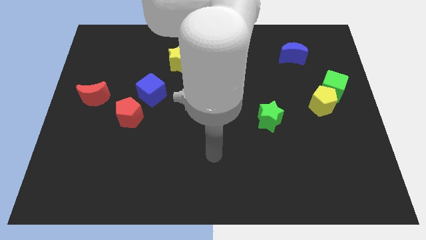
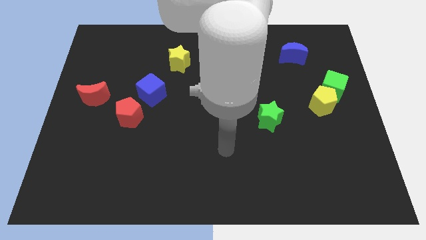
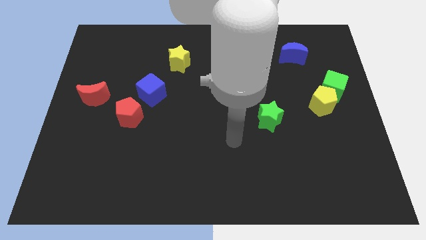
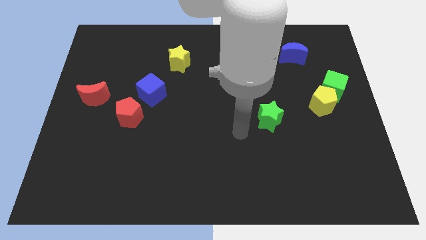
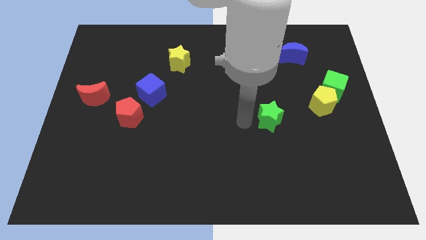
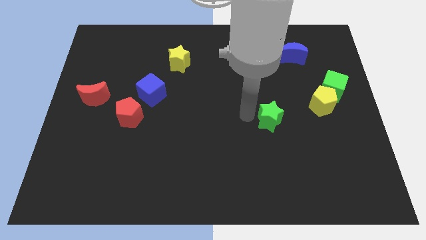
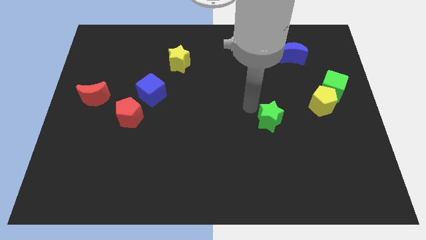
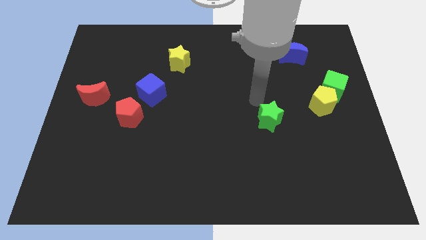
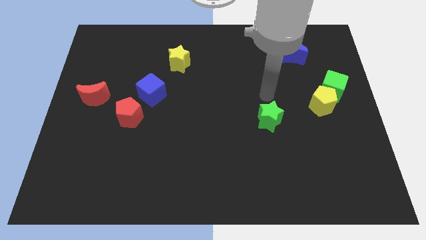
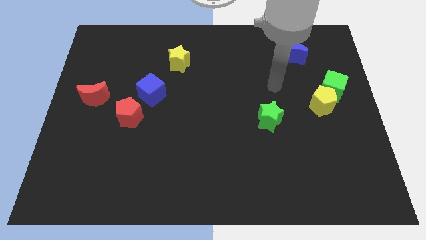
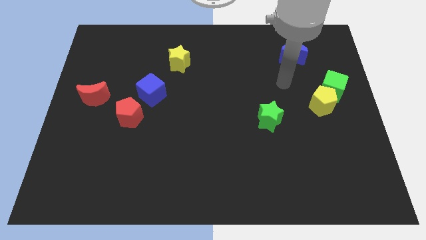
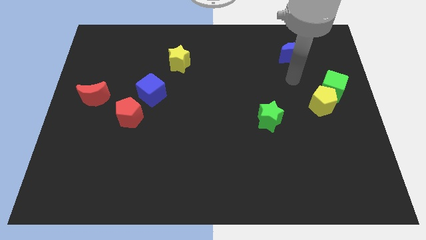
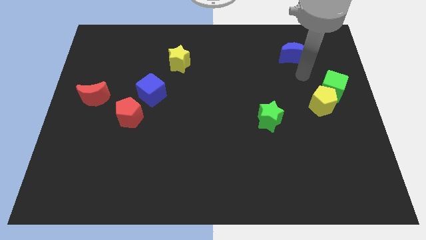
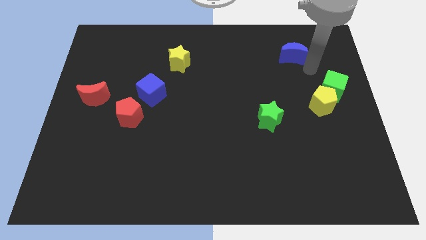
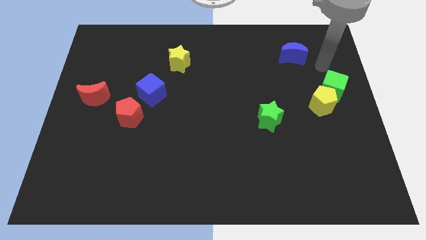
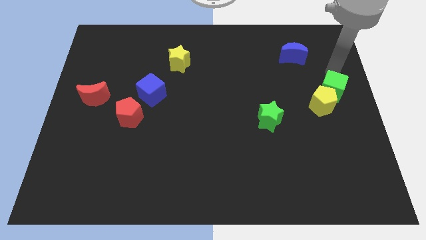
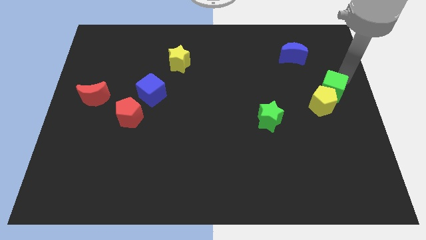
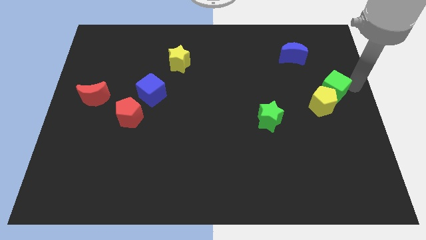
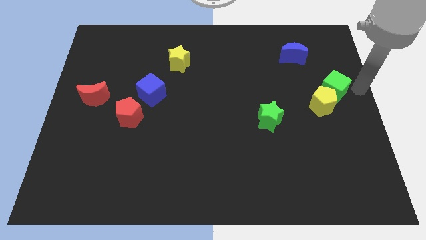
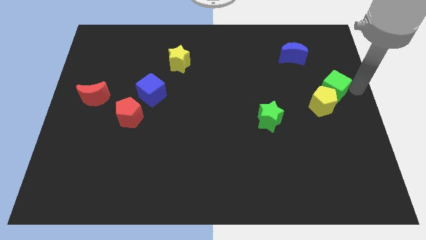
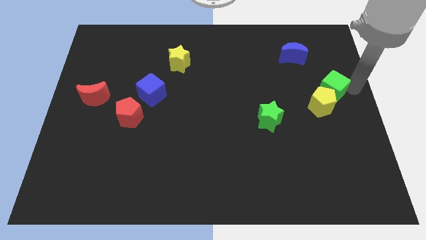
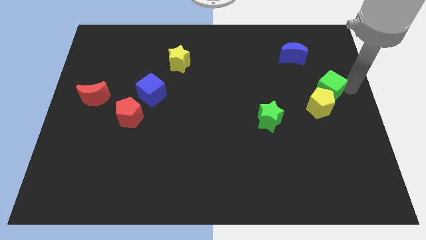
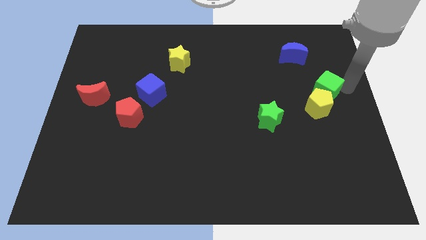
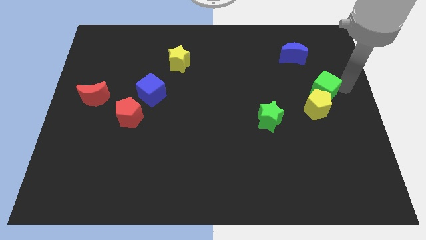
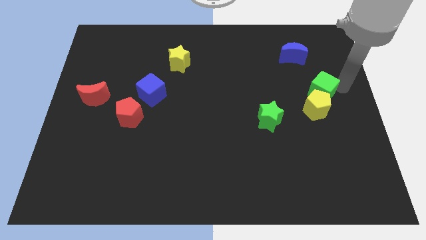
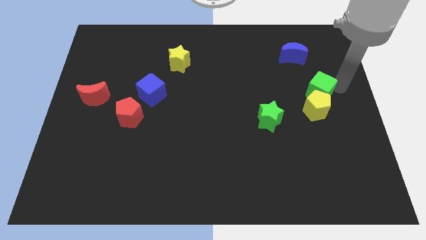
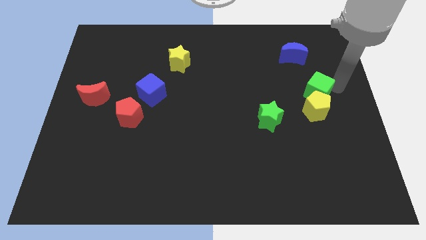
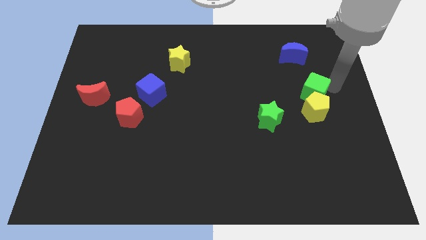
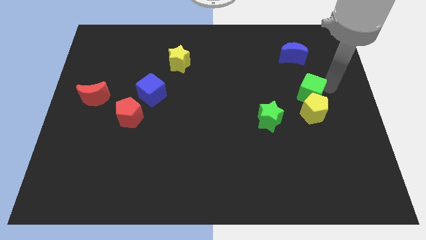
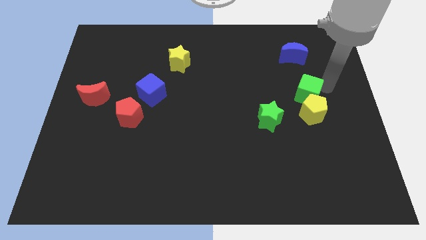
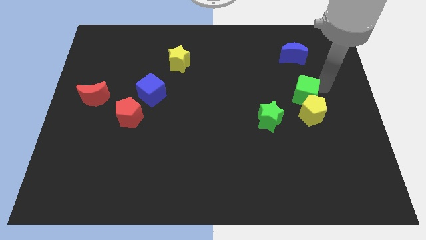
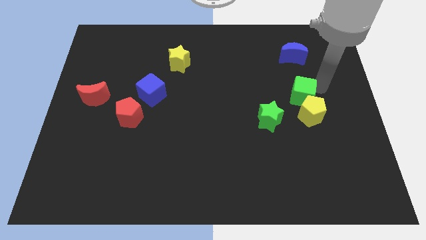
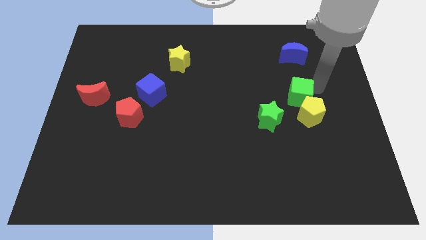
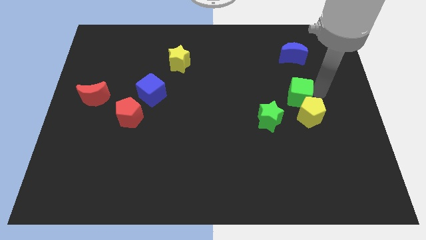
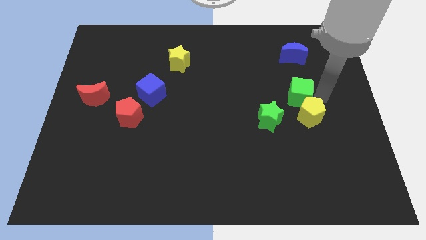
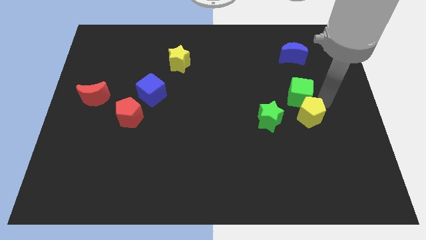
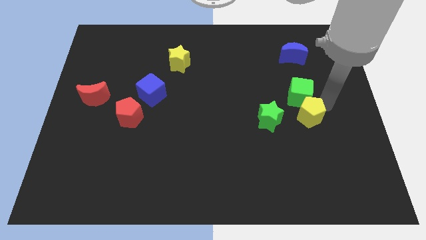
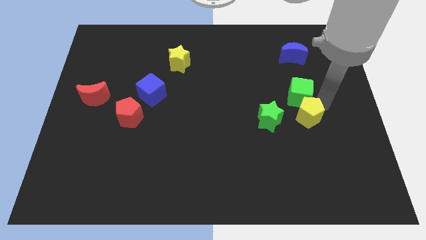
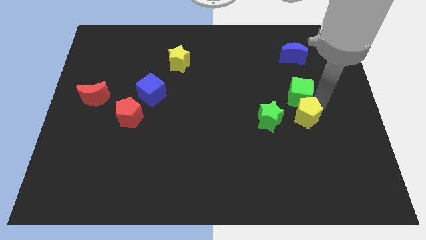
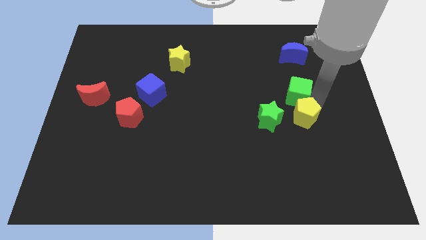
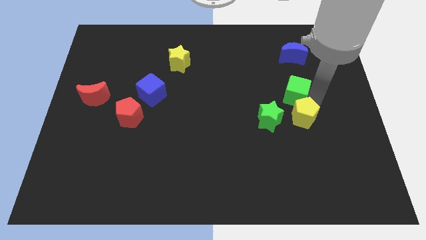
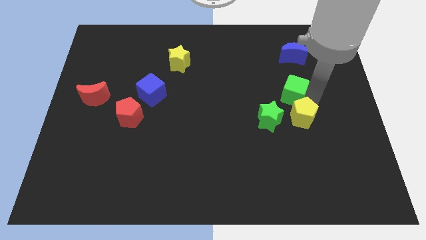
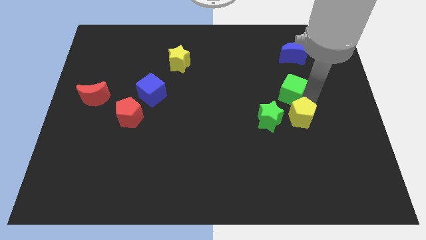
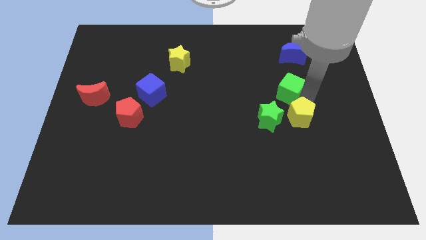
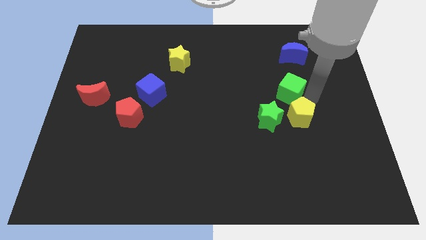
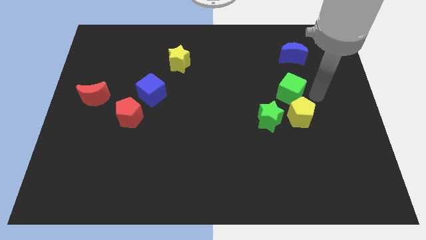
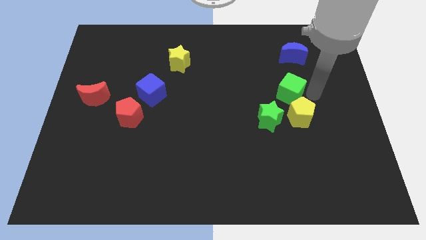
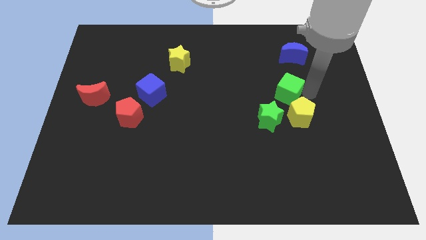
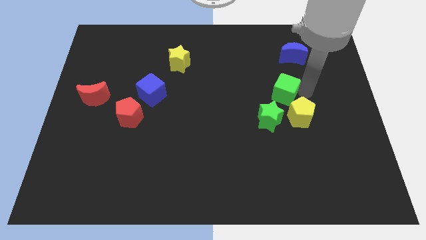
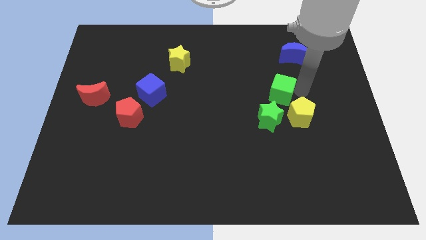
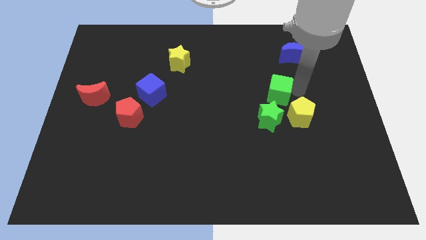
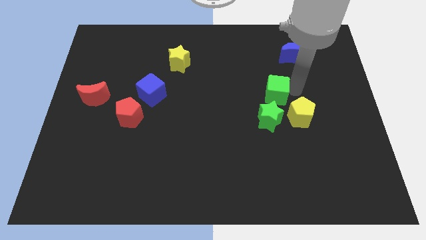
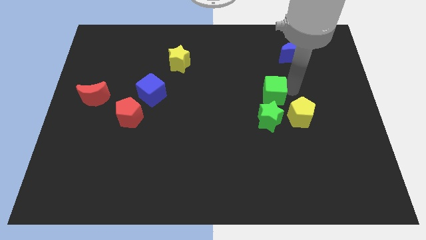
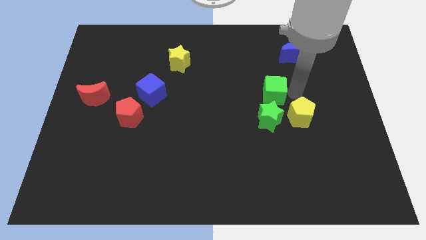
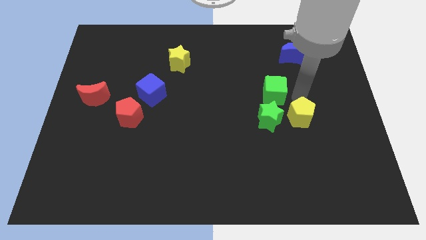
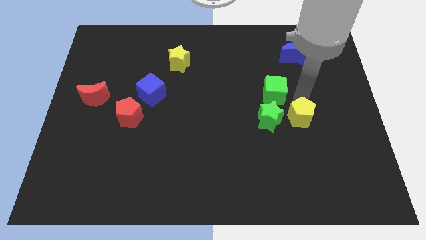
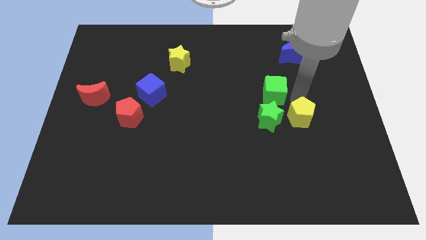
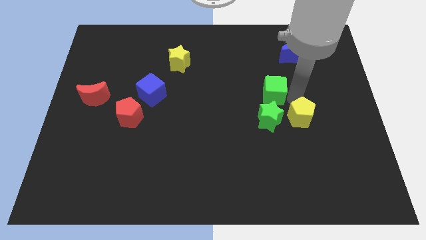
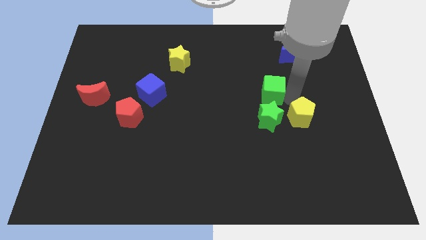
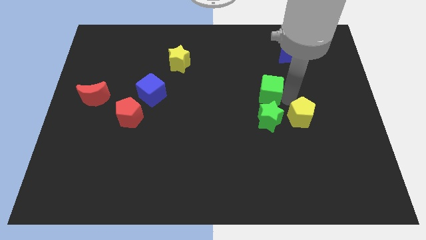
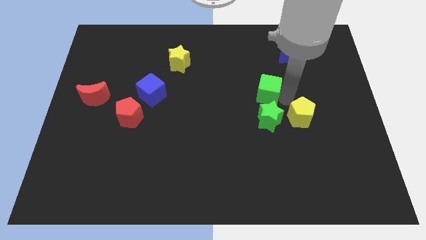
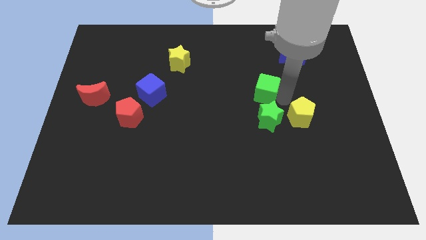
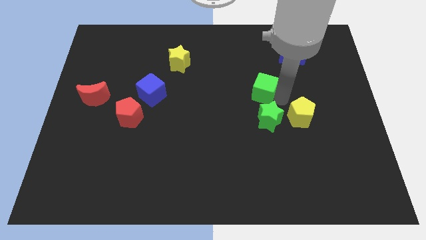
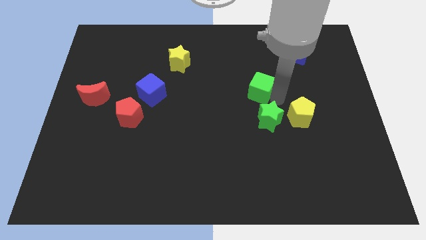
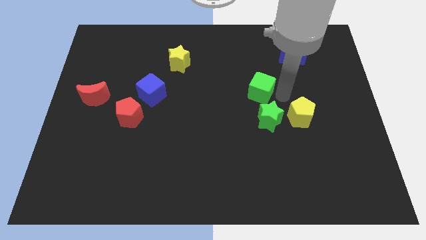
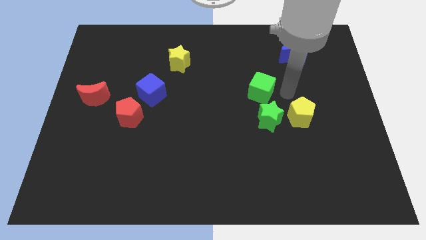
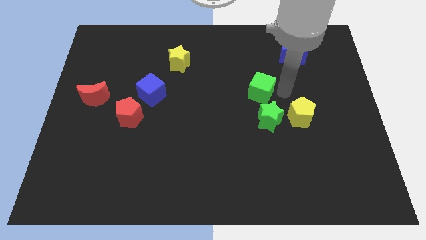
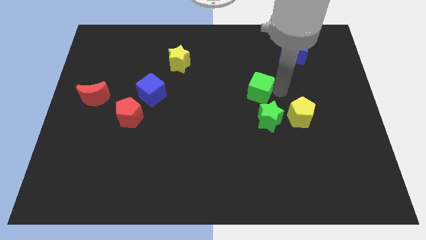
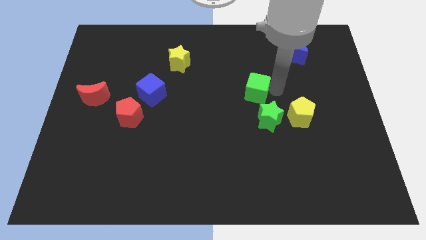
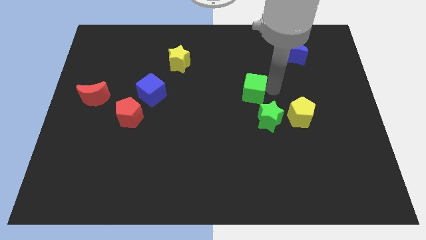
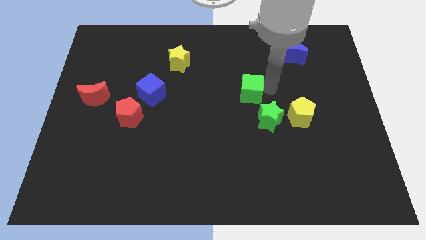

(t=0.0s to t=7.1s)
move the green cube to the left

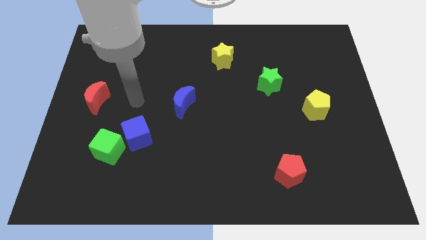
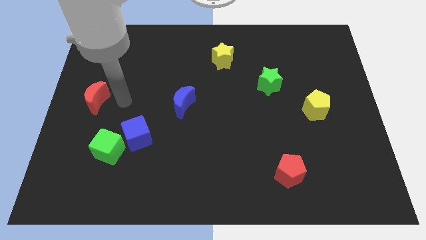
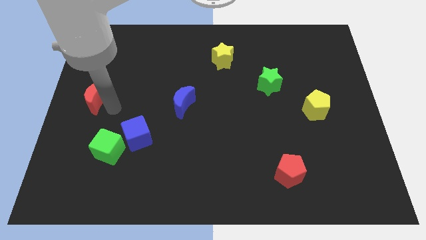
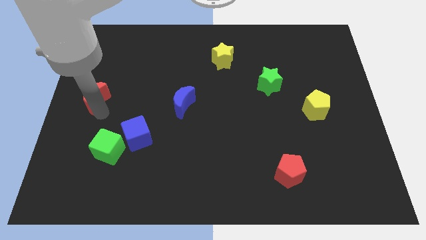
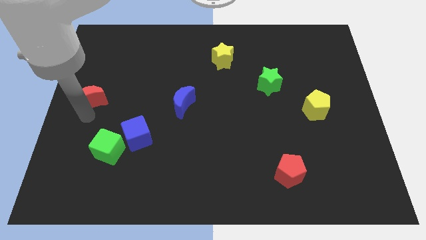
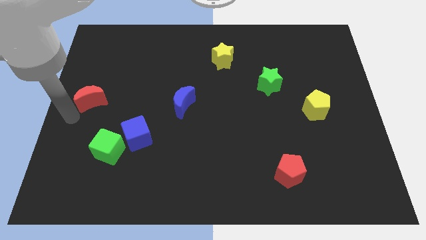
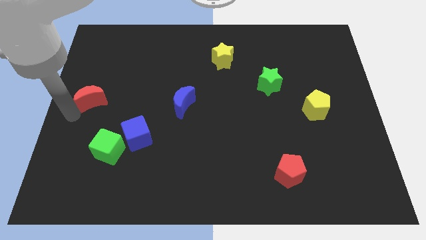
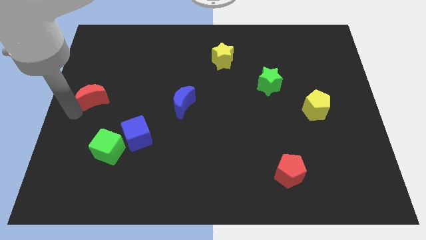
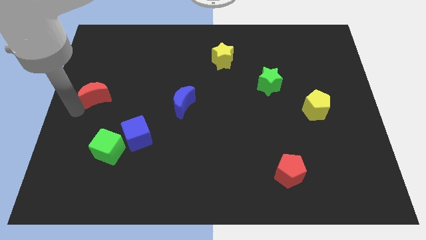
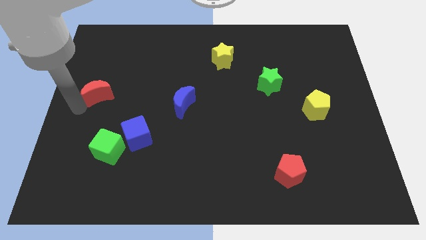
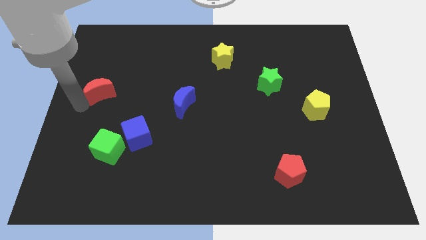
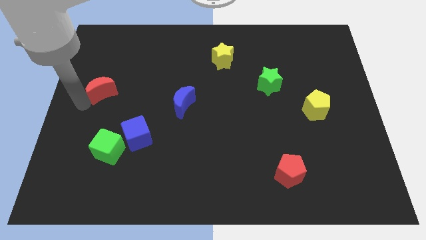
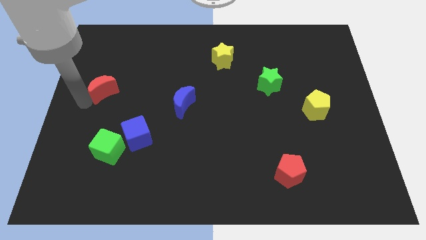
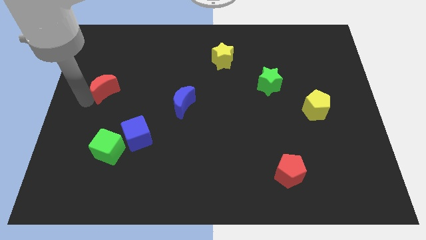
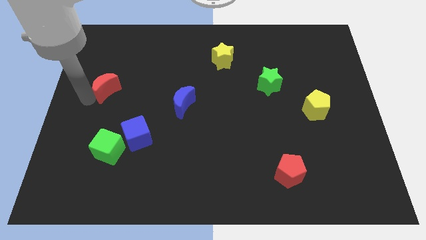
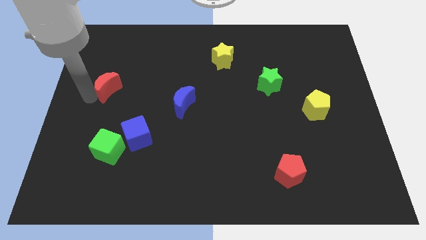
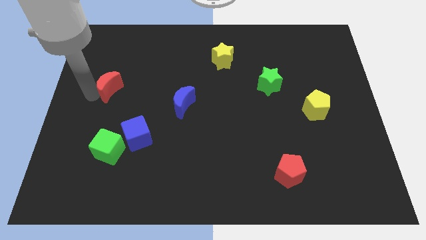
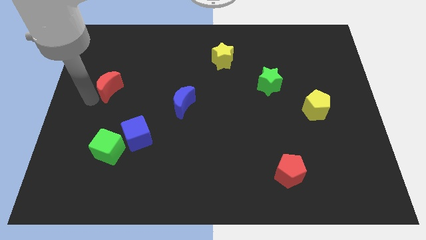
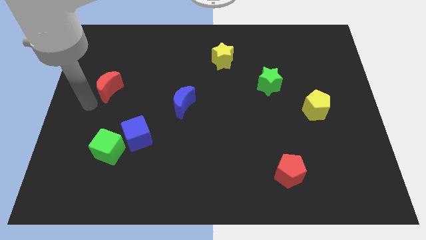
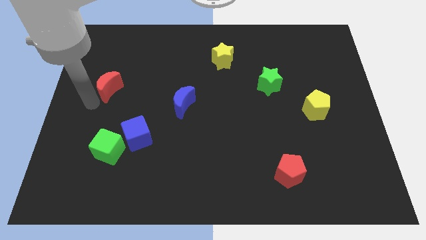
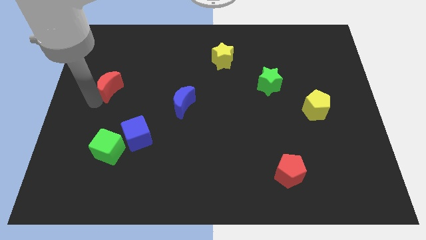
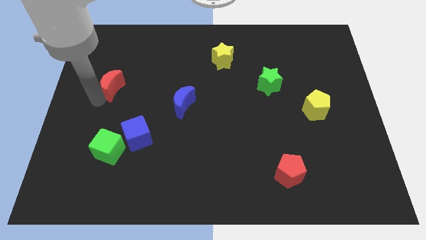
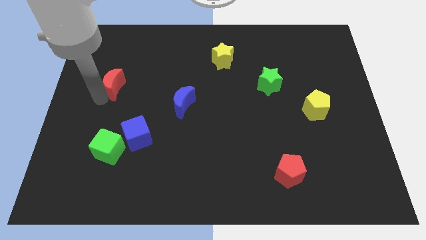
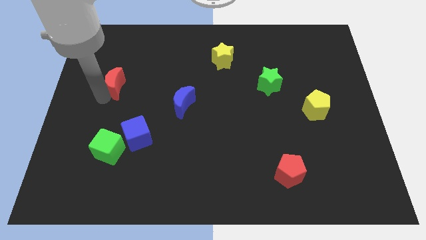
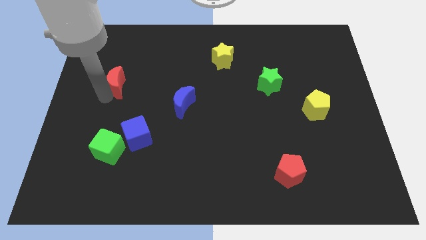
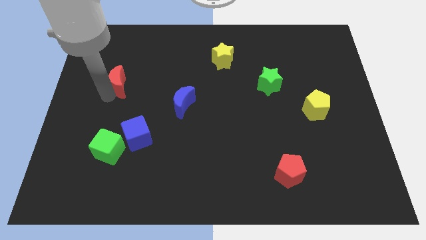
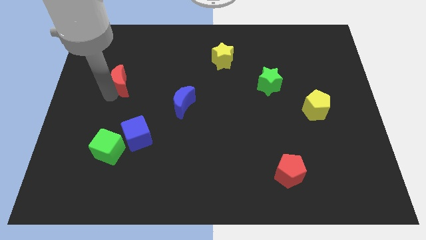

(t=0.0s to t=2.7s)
slightly push the red moon diagonally upwards and right
